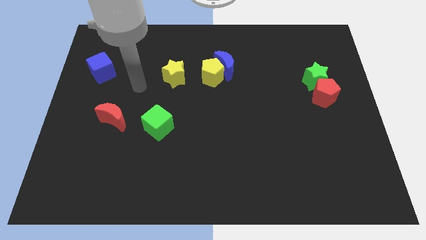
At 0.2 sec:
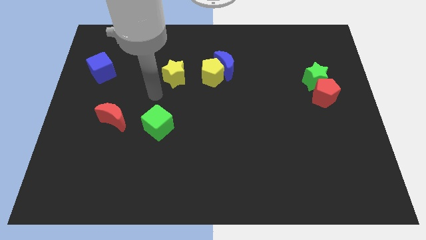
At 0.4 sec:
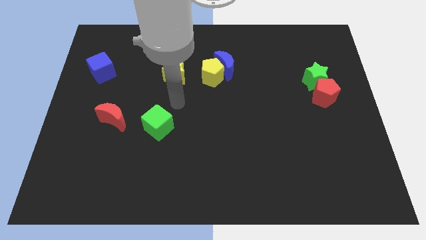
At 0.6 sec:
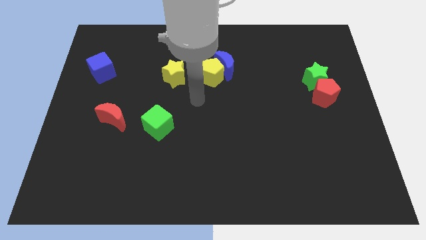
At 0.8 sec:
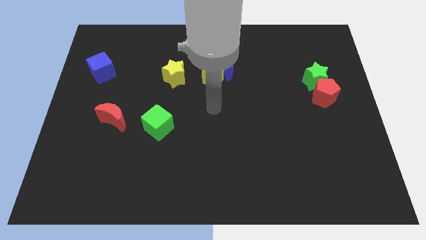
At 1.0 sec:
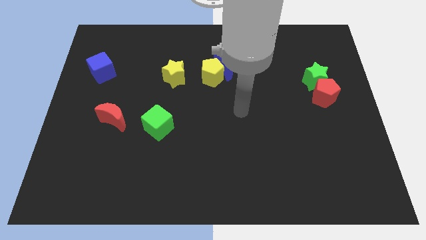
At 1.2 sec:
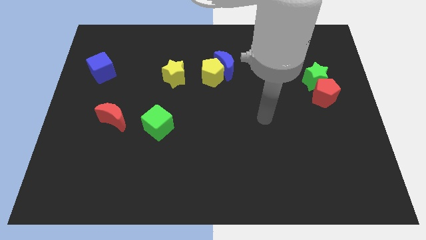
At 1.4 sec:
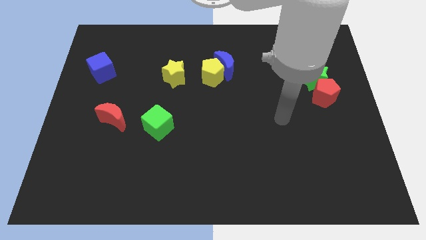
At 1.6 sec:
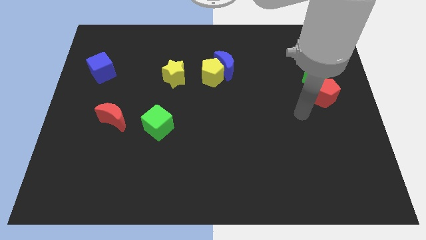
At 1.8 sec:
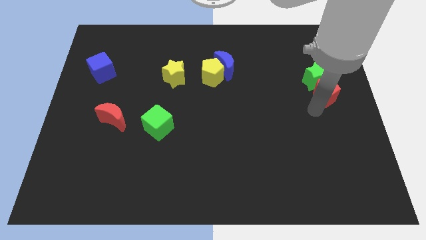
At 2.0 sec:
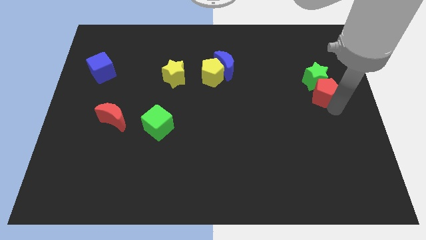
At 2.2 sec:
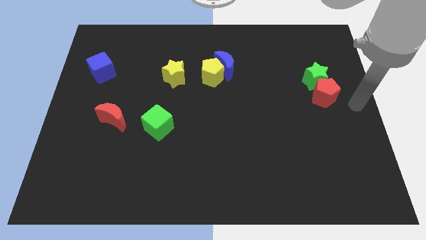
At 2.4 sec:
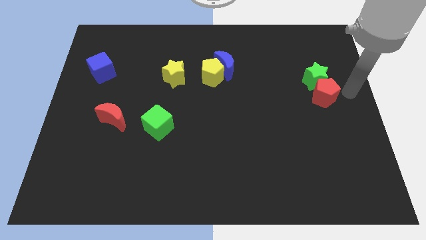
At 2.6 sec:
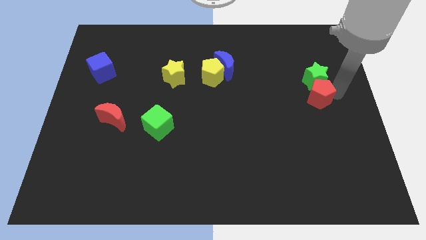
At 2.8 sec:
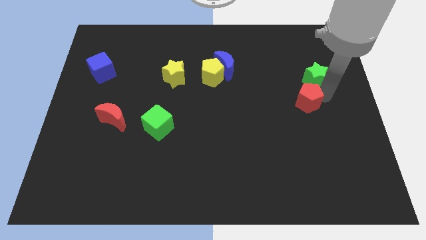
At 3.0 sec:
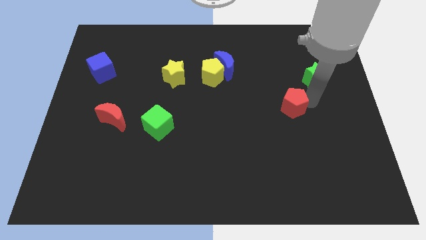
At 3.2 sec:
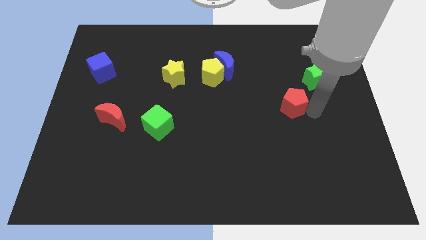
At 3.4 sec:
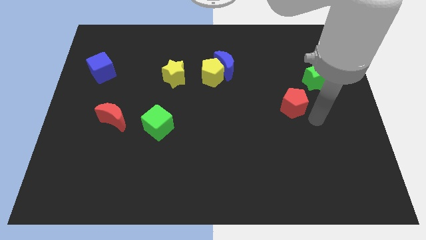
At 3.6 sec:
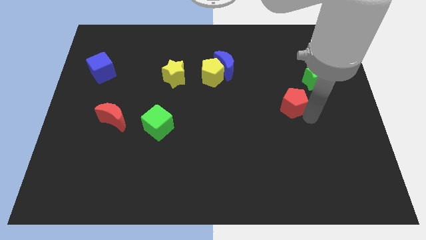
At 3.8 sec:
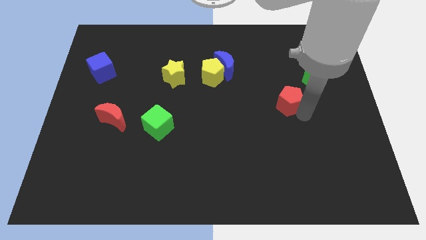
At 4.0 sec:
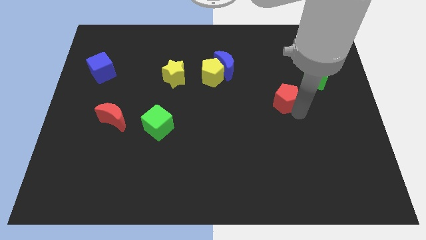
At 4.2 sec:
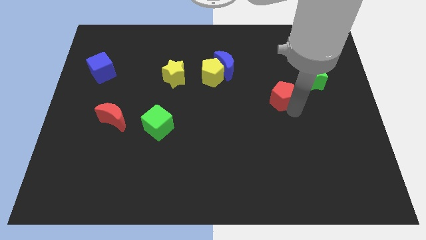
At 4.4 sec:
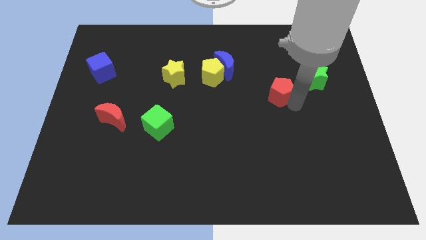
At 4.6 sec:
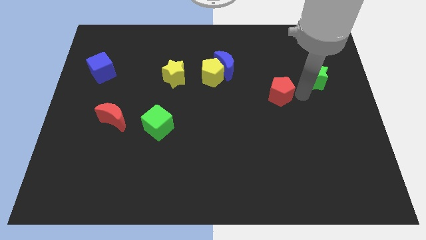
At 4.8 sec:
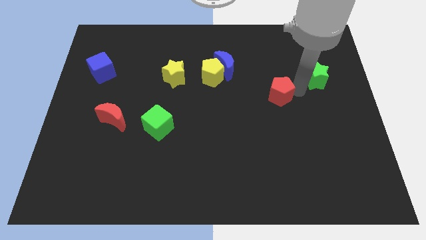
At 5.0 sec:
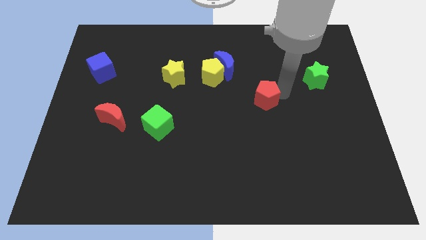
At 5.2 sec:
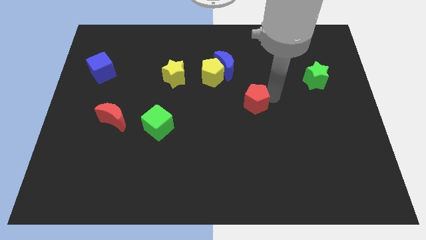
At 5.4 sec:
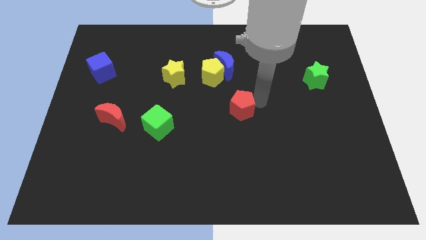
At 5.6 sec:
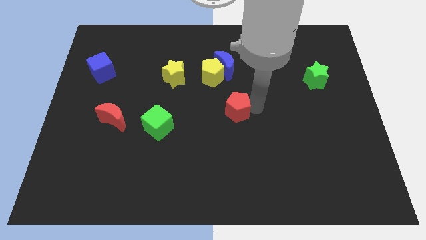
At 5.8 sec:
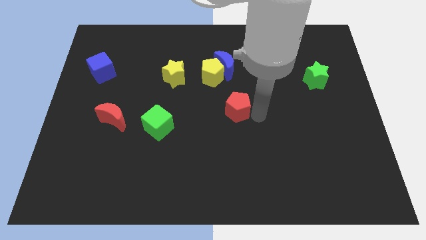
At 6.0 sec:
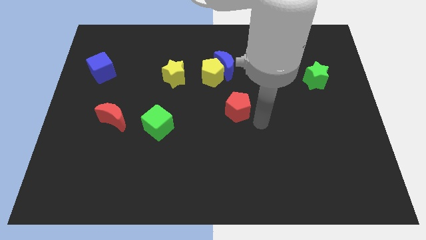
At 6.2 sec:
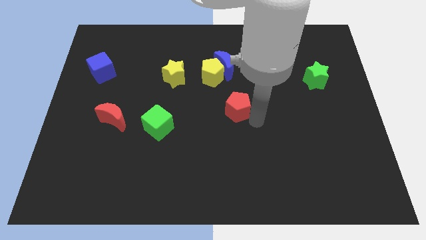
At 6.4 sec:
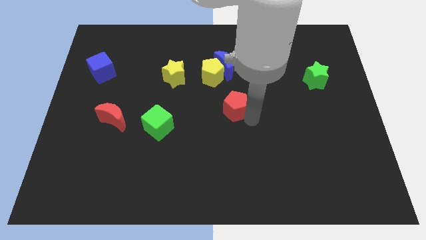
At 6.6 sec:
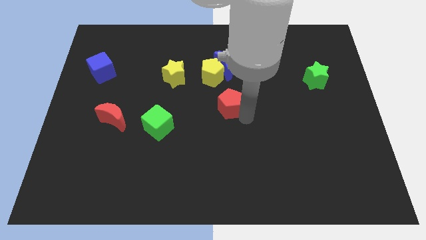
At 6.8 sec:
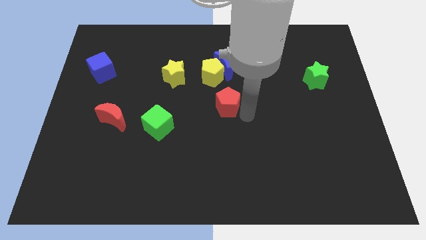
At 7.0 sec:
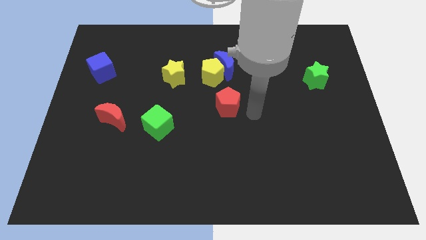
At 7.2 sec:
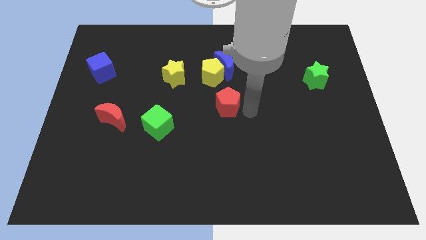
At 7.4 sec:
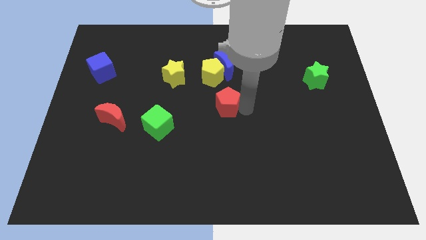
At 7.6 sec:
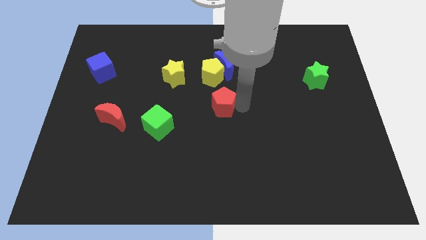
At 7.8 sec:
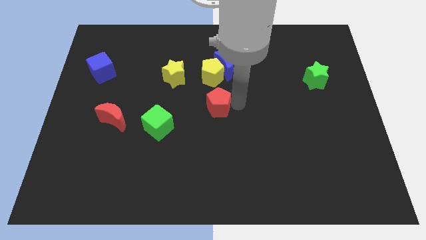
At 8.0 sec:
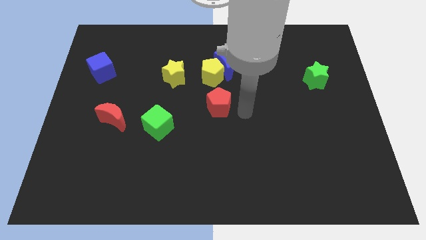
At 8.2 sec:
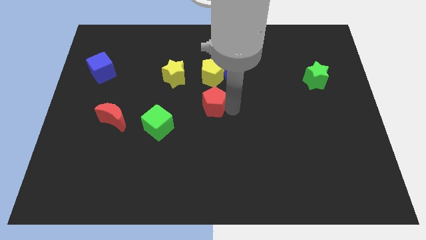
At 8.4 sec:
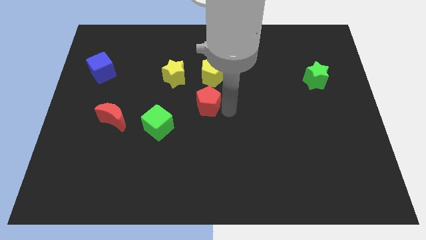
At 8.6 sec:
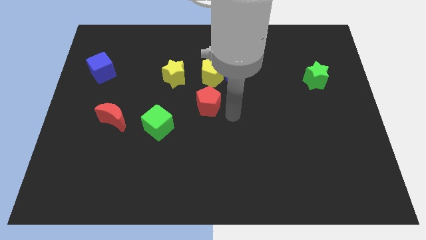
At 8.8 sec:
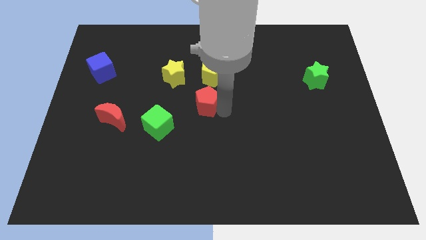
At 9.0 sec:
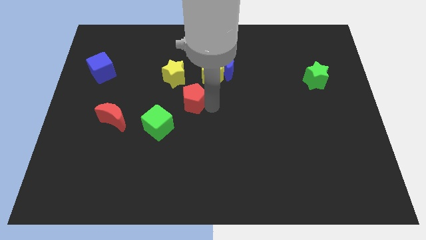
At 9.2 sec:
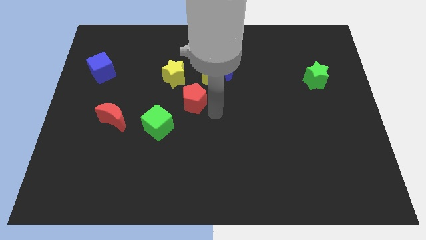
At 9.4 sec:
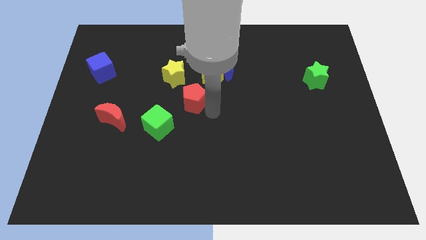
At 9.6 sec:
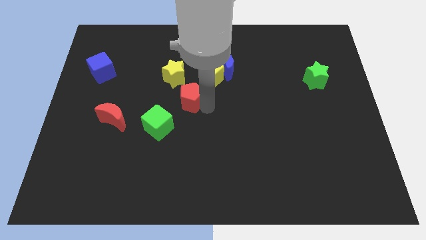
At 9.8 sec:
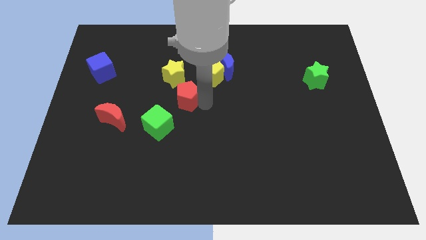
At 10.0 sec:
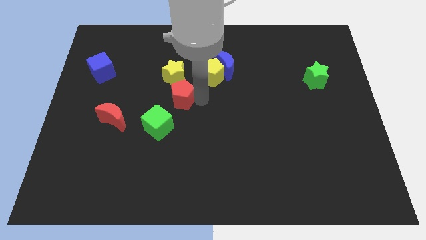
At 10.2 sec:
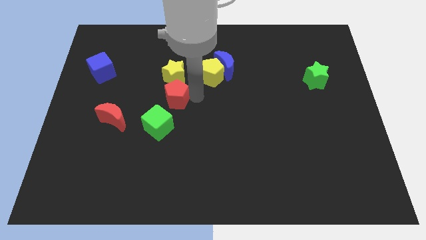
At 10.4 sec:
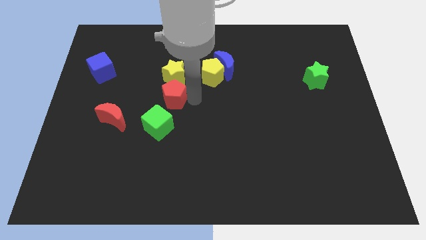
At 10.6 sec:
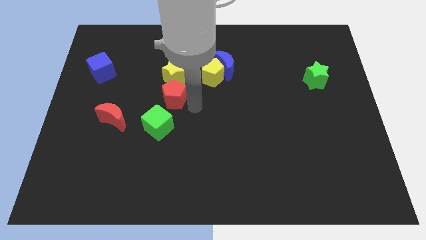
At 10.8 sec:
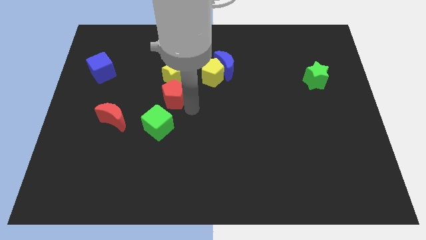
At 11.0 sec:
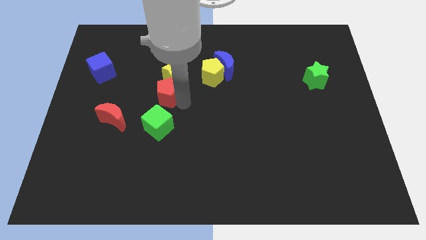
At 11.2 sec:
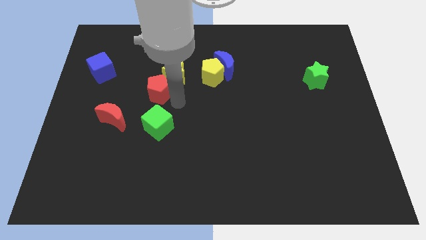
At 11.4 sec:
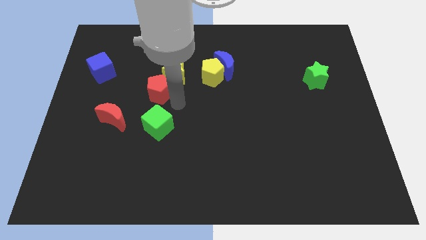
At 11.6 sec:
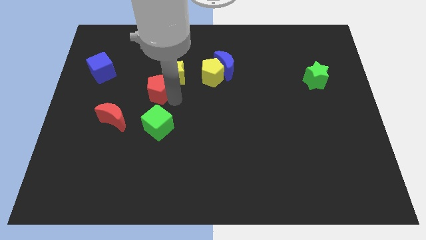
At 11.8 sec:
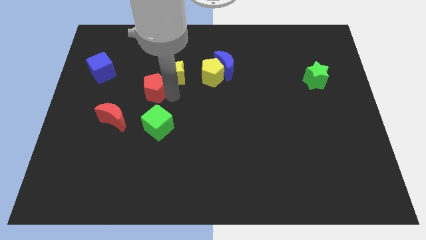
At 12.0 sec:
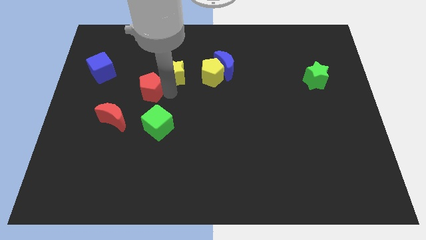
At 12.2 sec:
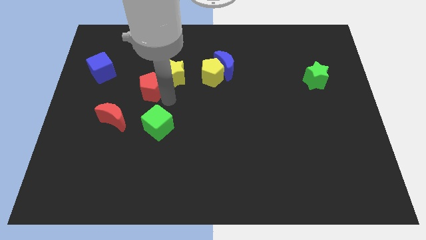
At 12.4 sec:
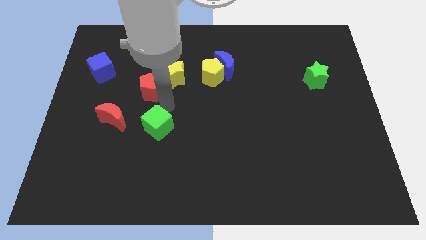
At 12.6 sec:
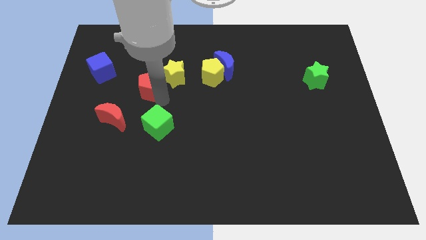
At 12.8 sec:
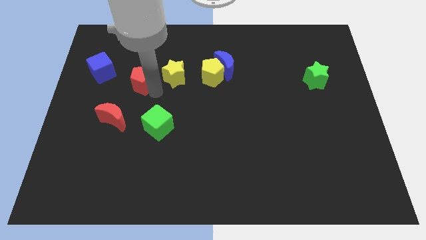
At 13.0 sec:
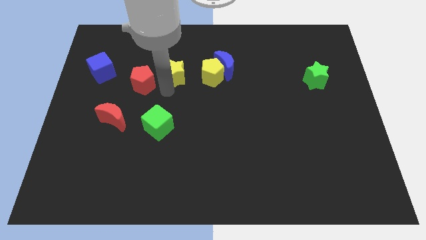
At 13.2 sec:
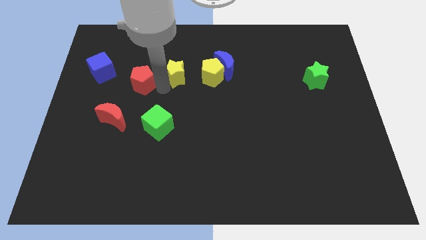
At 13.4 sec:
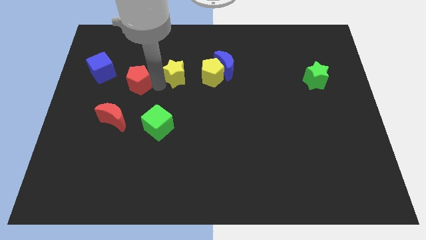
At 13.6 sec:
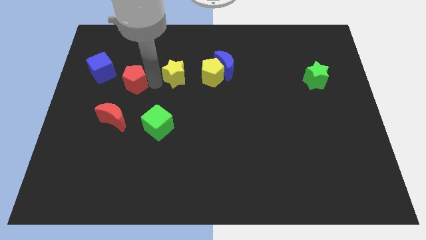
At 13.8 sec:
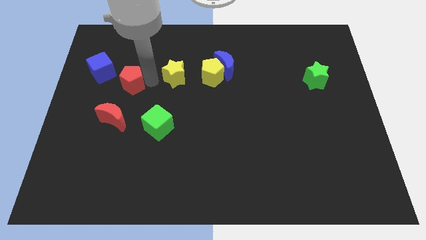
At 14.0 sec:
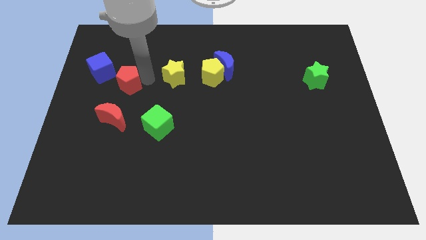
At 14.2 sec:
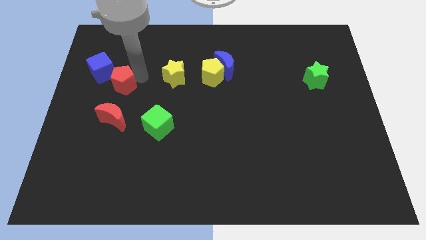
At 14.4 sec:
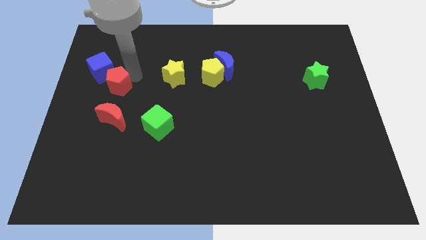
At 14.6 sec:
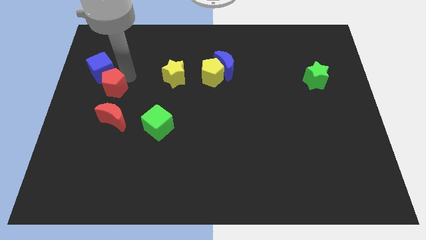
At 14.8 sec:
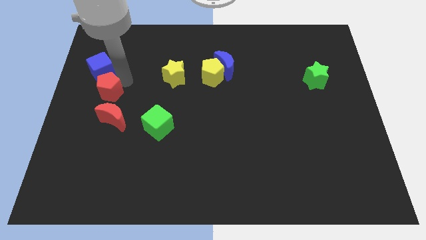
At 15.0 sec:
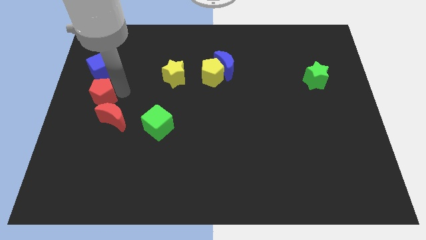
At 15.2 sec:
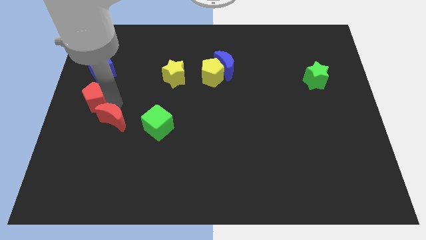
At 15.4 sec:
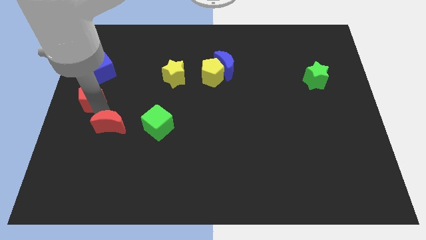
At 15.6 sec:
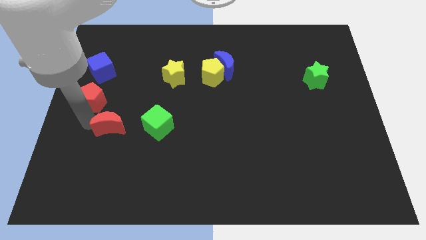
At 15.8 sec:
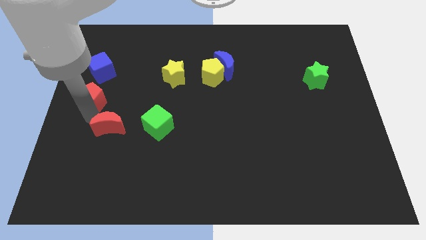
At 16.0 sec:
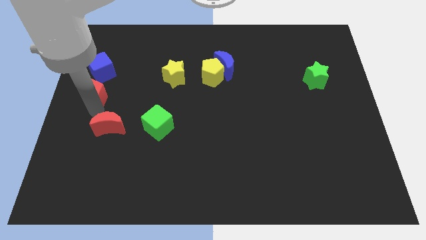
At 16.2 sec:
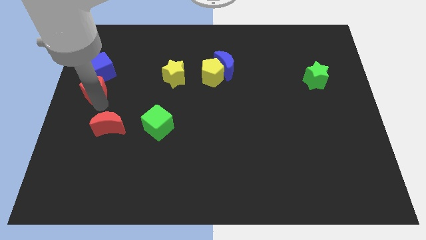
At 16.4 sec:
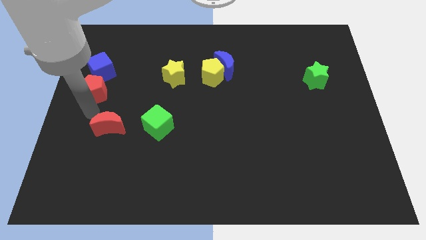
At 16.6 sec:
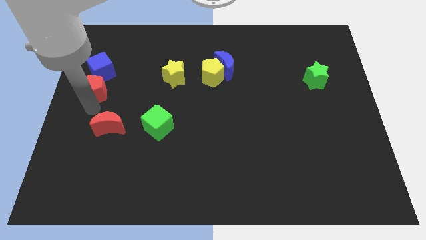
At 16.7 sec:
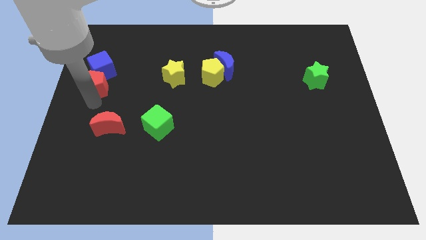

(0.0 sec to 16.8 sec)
slide the red pentagon next to the blue cube
